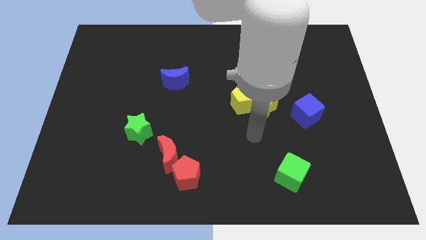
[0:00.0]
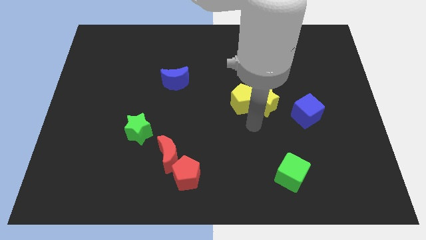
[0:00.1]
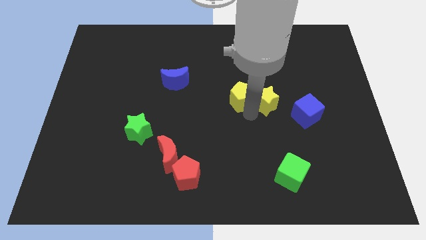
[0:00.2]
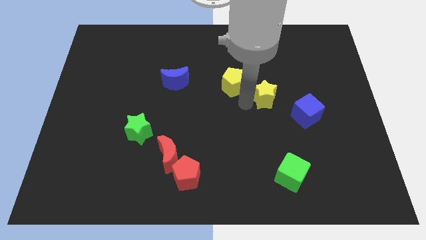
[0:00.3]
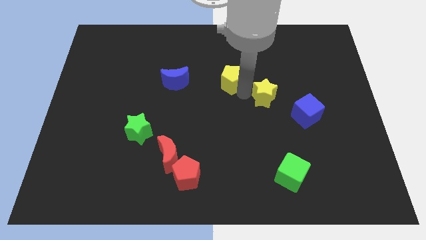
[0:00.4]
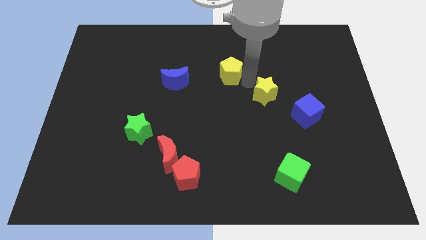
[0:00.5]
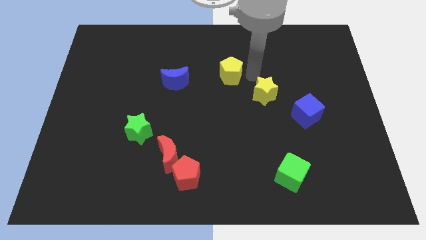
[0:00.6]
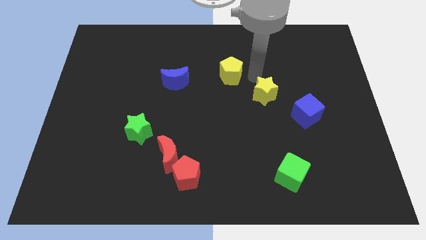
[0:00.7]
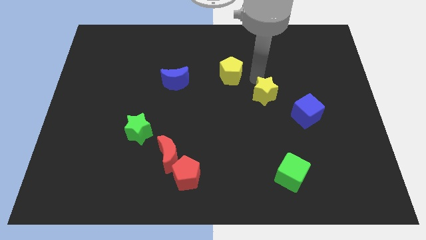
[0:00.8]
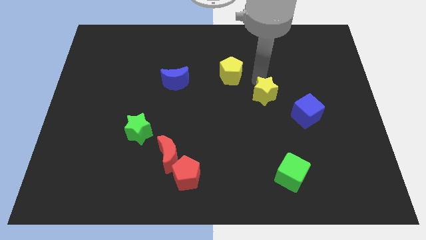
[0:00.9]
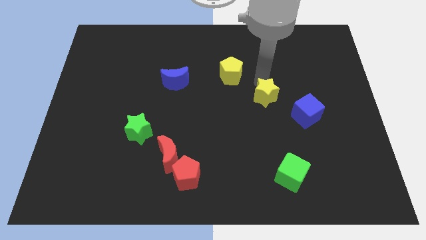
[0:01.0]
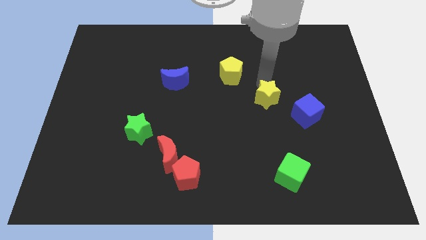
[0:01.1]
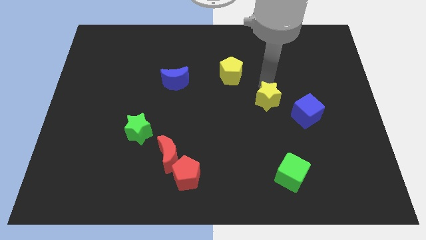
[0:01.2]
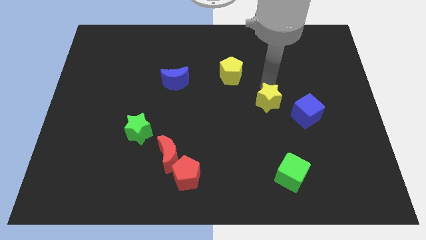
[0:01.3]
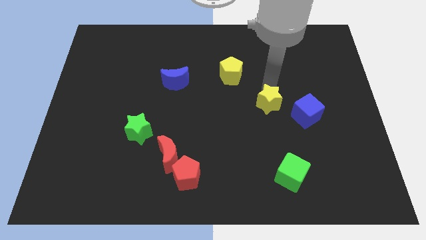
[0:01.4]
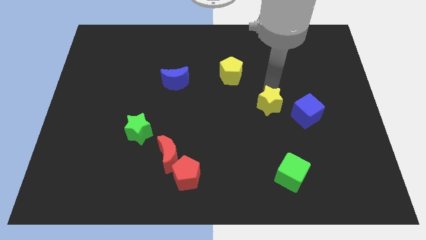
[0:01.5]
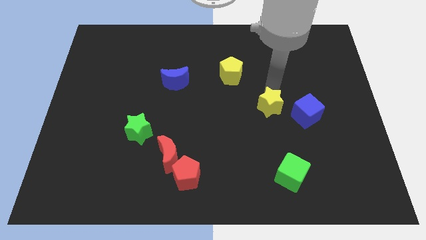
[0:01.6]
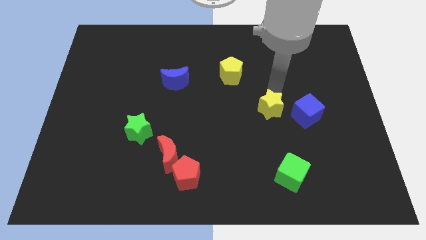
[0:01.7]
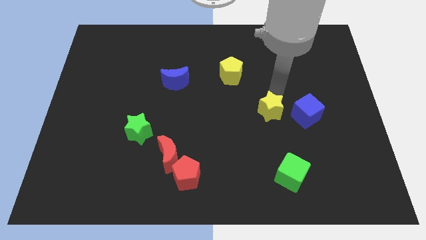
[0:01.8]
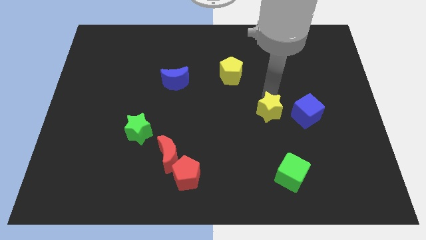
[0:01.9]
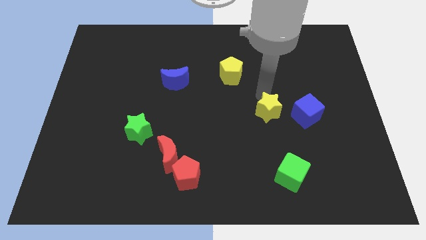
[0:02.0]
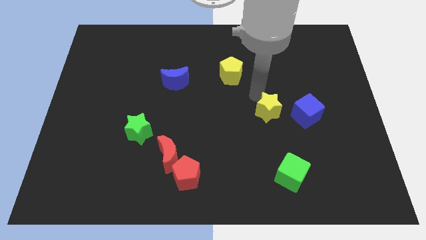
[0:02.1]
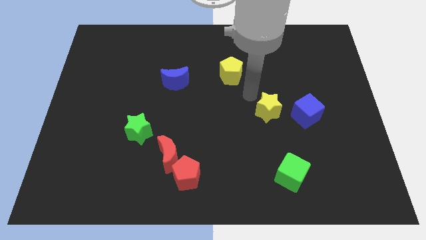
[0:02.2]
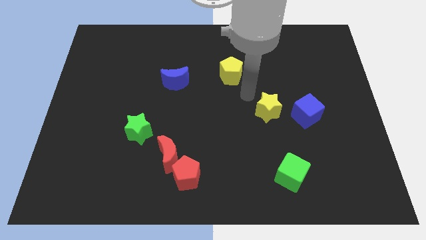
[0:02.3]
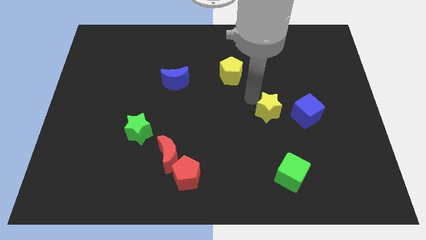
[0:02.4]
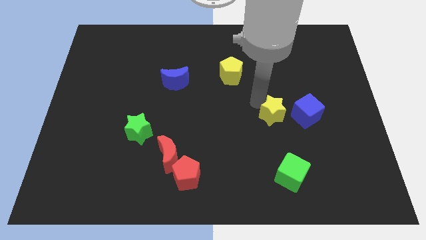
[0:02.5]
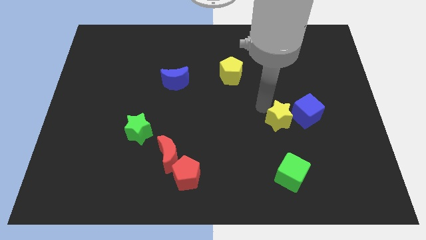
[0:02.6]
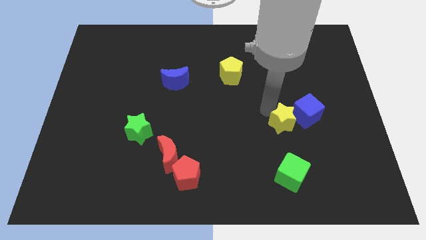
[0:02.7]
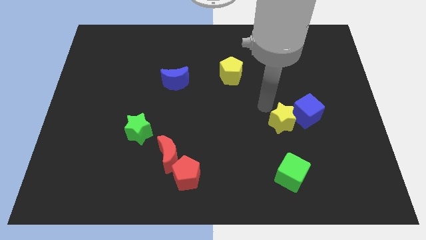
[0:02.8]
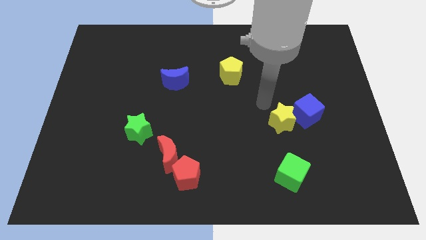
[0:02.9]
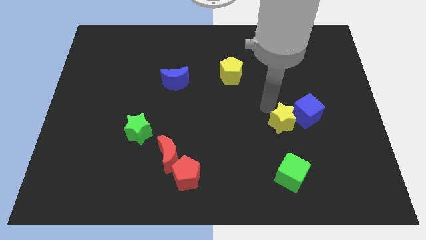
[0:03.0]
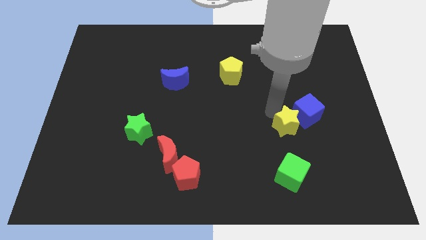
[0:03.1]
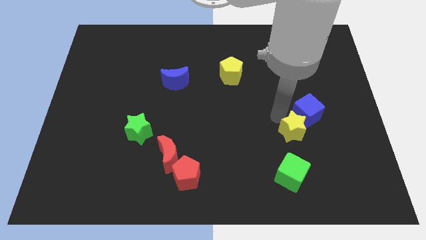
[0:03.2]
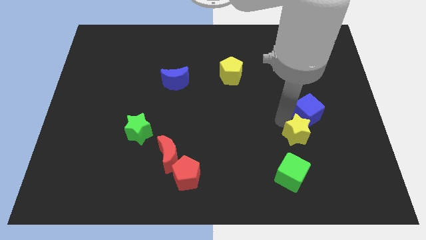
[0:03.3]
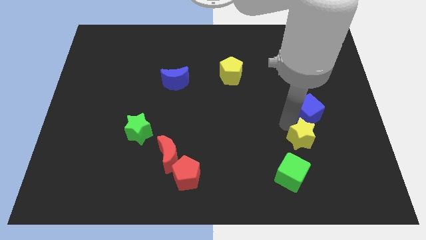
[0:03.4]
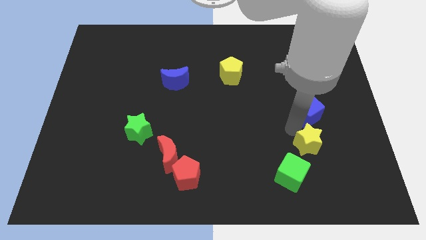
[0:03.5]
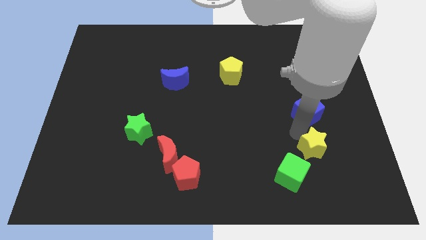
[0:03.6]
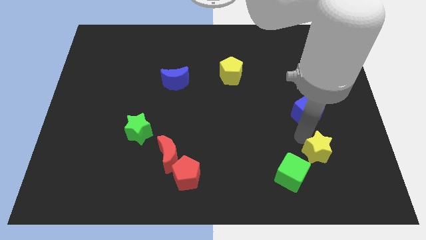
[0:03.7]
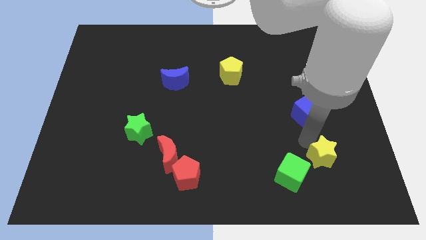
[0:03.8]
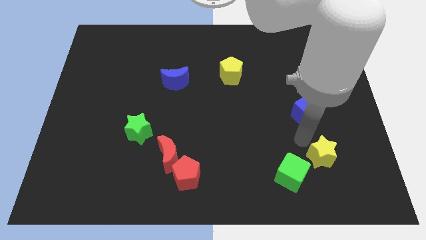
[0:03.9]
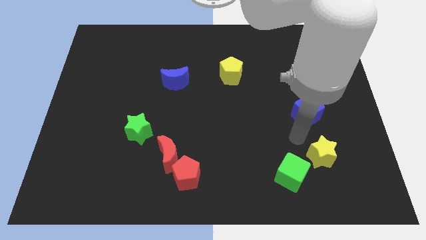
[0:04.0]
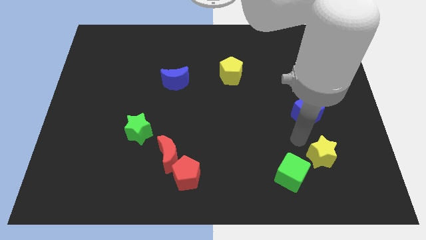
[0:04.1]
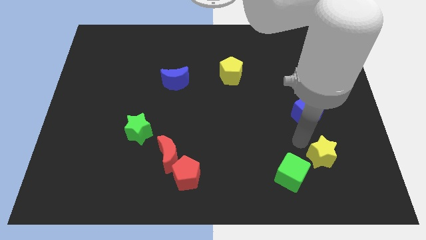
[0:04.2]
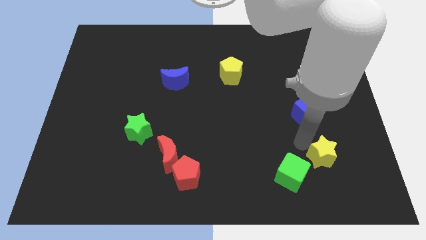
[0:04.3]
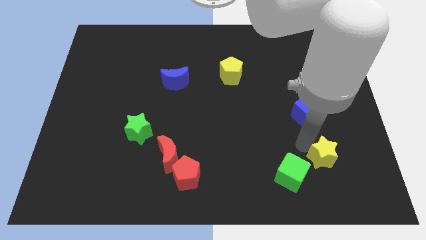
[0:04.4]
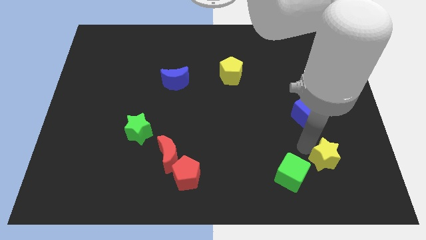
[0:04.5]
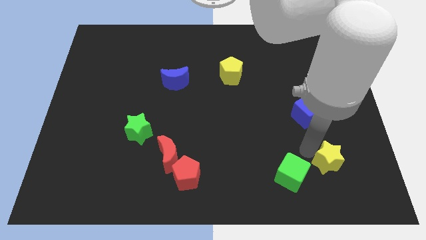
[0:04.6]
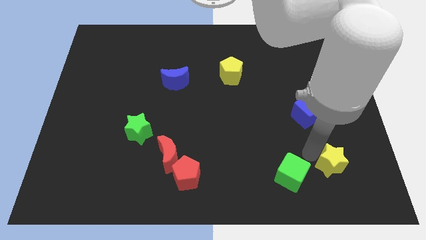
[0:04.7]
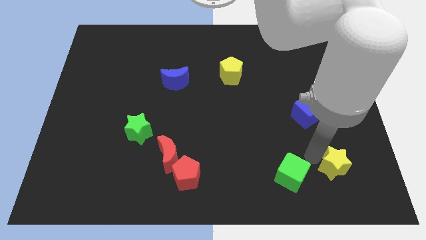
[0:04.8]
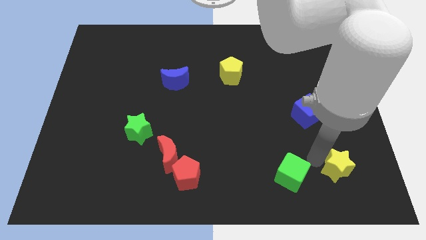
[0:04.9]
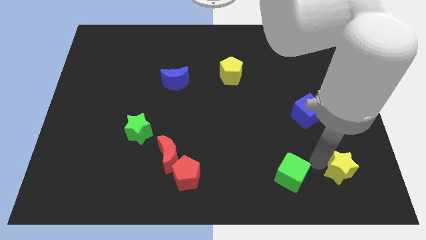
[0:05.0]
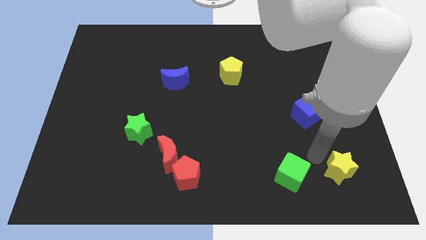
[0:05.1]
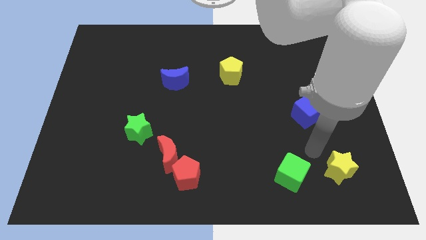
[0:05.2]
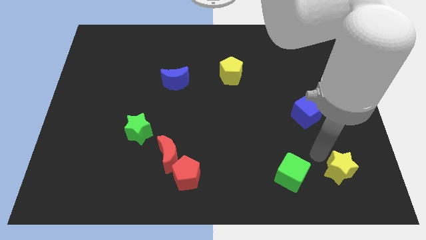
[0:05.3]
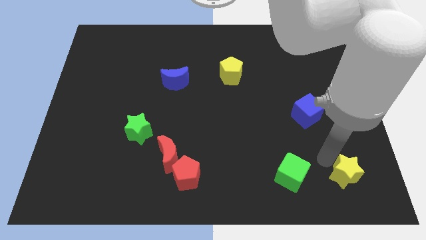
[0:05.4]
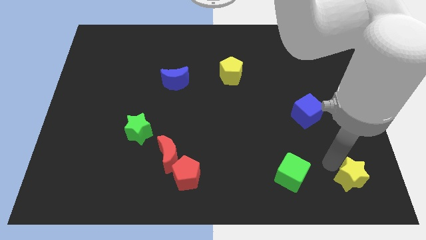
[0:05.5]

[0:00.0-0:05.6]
push the yellow star to the bottom right of the board
